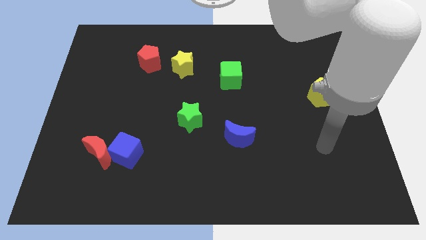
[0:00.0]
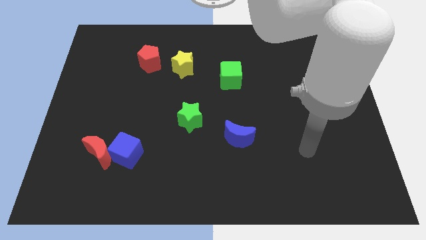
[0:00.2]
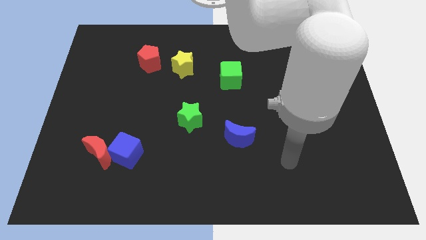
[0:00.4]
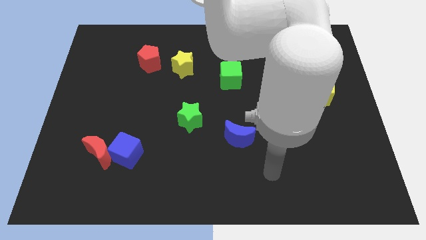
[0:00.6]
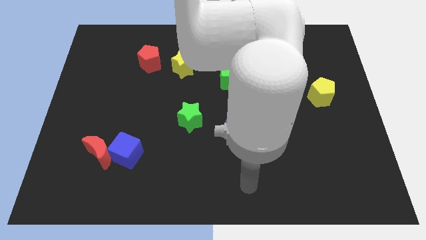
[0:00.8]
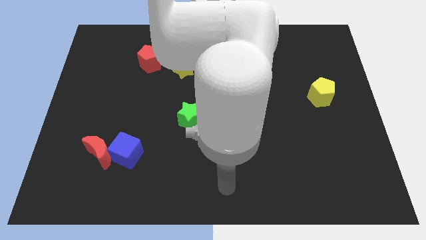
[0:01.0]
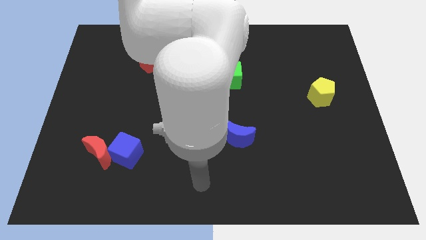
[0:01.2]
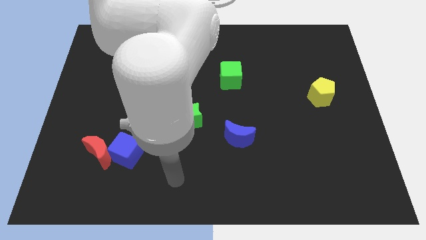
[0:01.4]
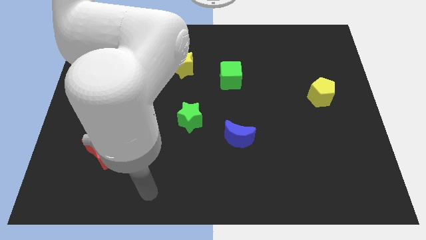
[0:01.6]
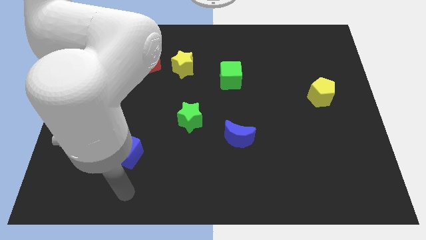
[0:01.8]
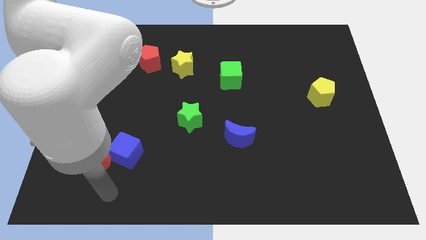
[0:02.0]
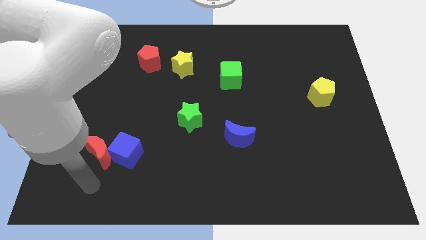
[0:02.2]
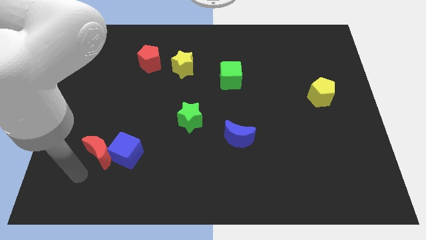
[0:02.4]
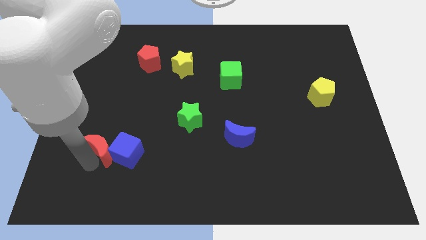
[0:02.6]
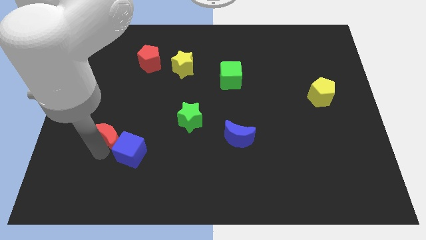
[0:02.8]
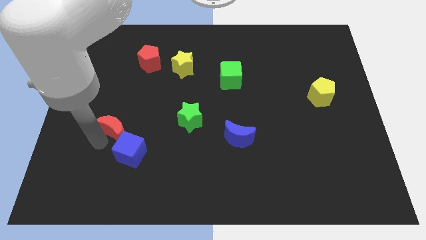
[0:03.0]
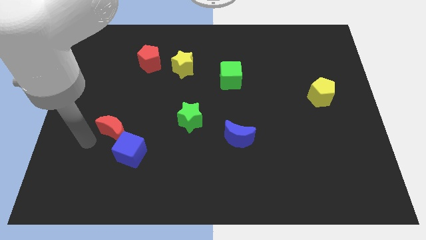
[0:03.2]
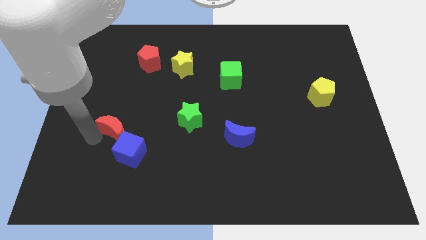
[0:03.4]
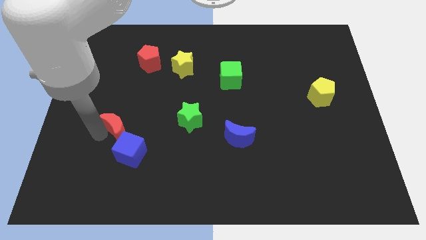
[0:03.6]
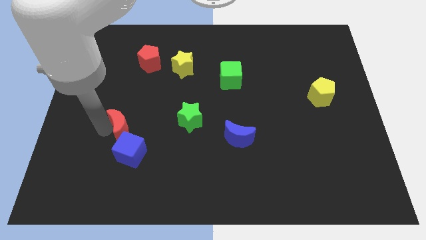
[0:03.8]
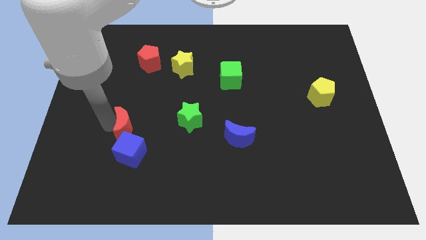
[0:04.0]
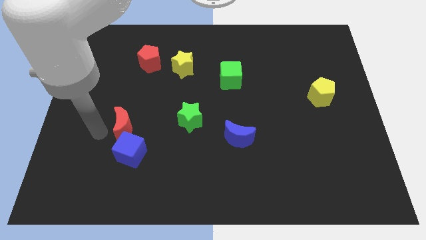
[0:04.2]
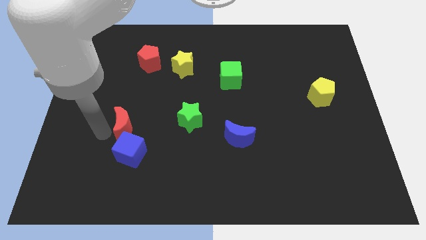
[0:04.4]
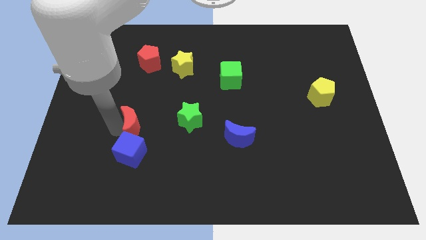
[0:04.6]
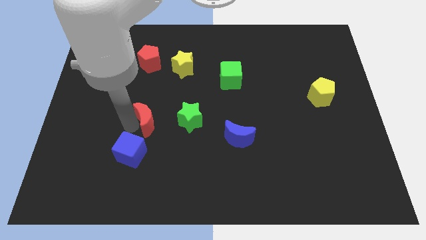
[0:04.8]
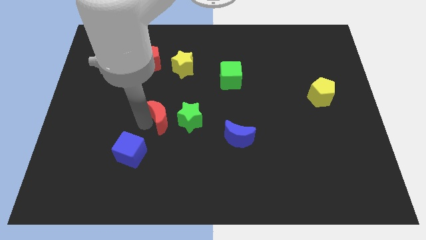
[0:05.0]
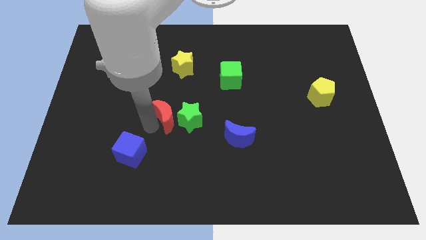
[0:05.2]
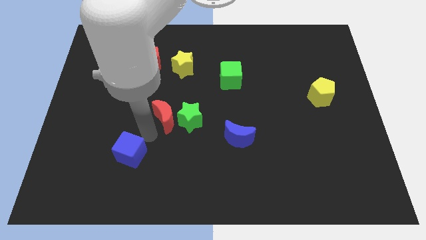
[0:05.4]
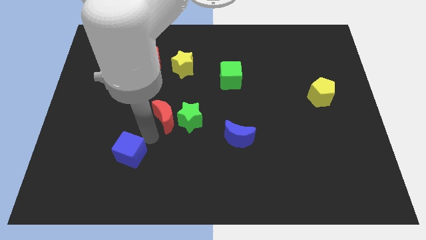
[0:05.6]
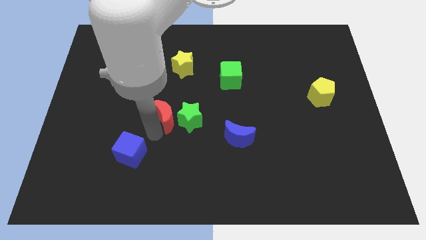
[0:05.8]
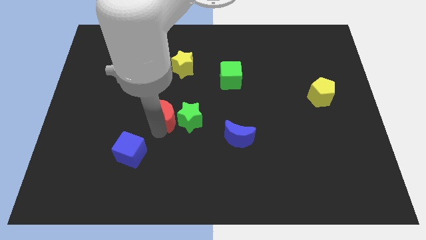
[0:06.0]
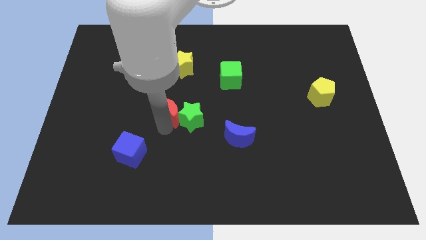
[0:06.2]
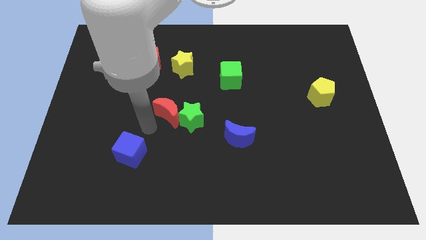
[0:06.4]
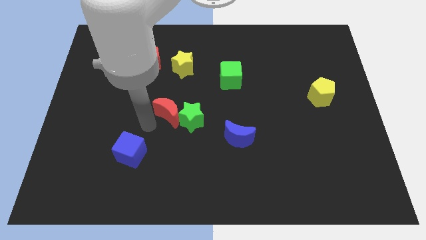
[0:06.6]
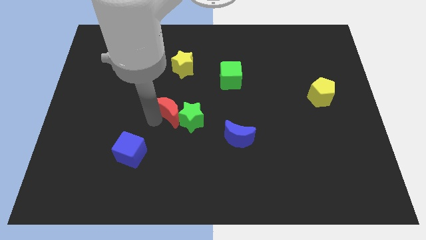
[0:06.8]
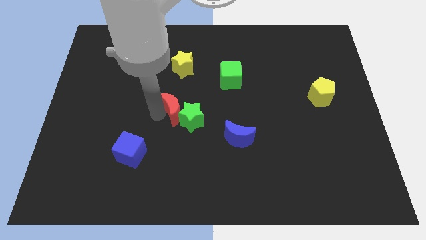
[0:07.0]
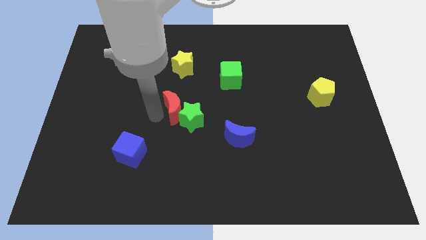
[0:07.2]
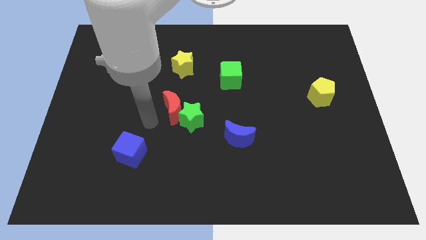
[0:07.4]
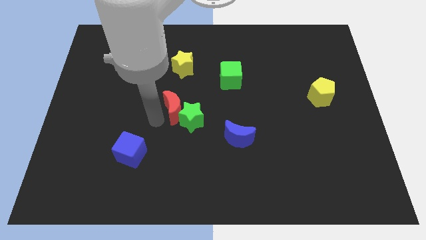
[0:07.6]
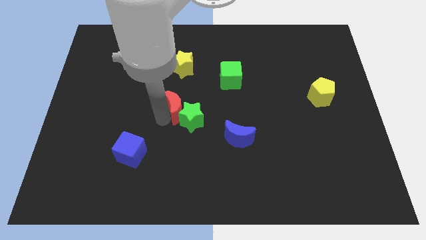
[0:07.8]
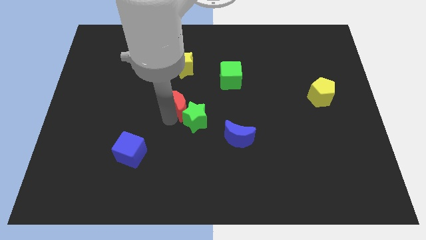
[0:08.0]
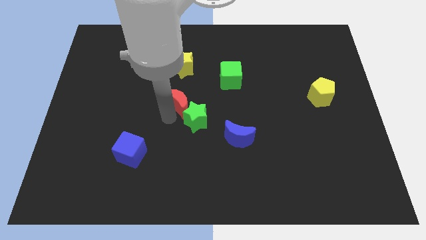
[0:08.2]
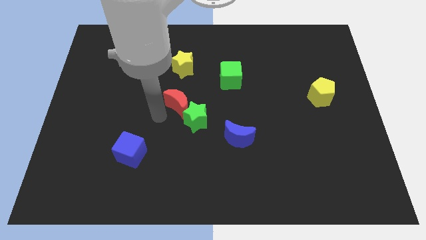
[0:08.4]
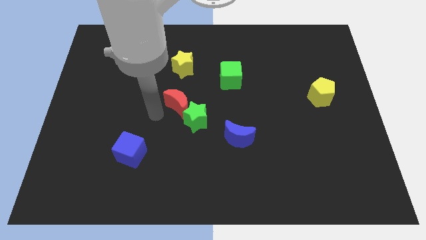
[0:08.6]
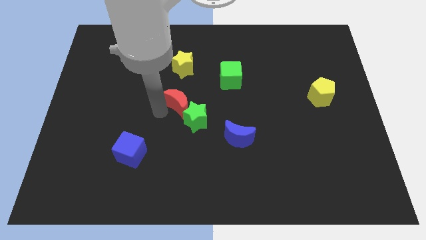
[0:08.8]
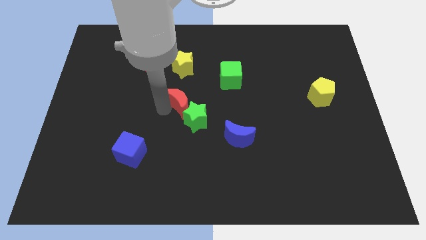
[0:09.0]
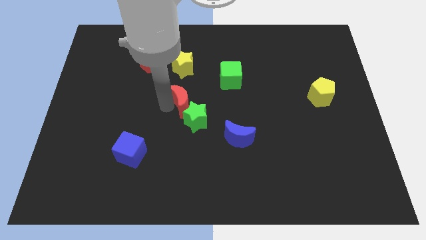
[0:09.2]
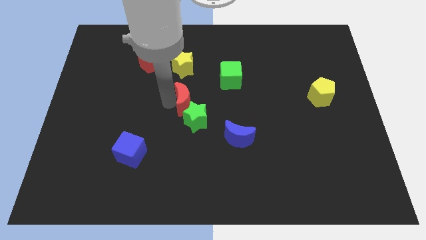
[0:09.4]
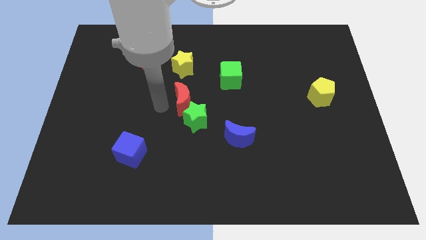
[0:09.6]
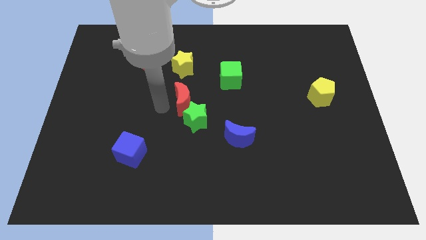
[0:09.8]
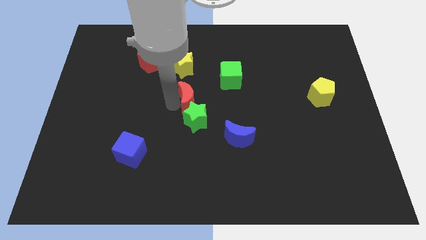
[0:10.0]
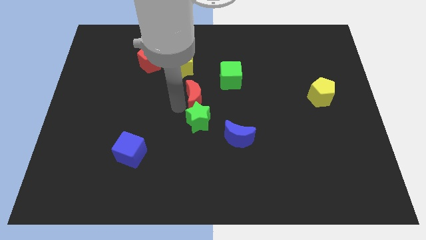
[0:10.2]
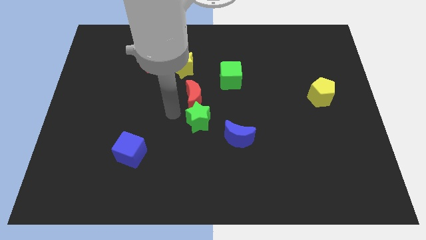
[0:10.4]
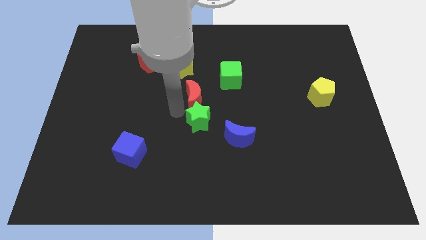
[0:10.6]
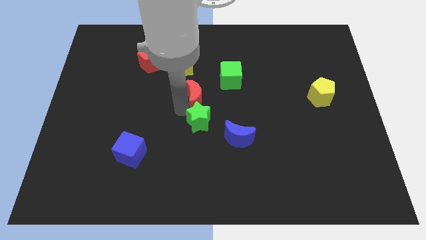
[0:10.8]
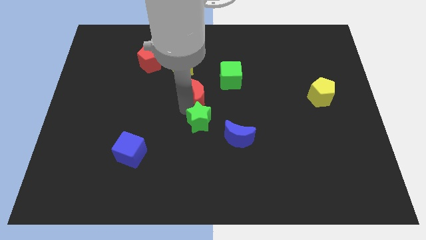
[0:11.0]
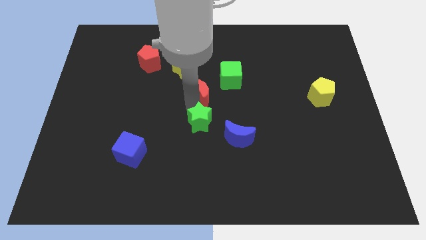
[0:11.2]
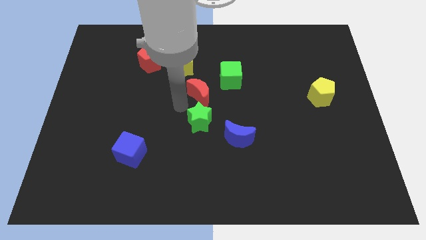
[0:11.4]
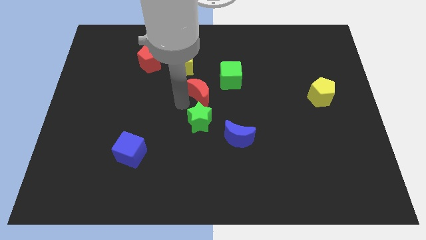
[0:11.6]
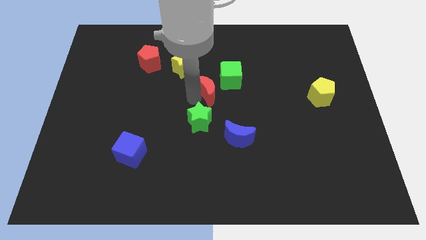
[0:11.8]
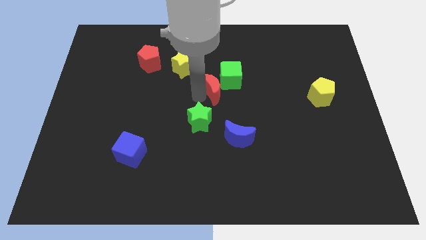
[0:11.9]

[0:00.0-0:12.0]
move the red moon next to the green cube
